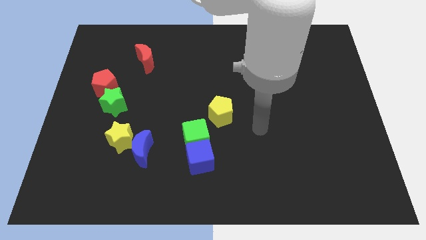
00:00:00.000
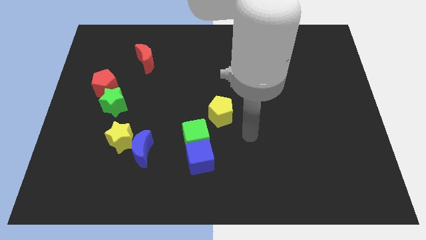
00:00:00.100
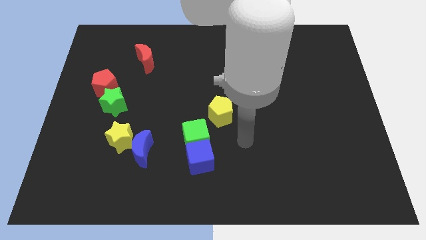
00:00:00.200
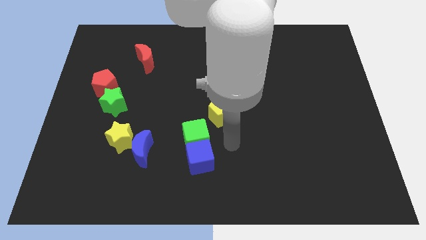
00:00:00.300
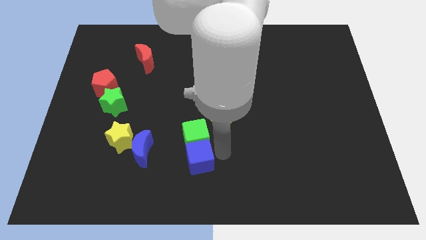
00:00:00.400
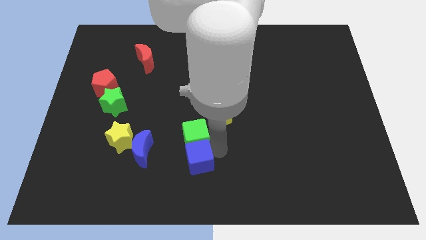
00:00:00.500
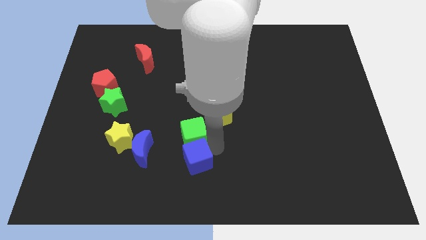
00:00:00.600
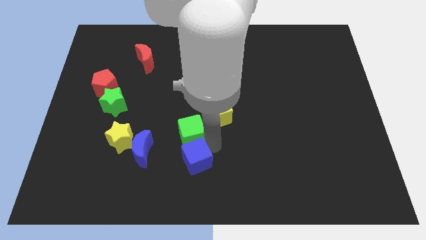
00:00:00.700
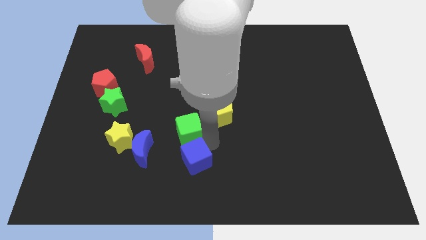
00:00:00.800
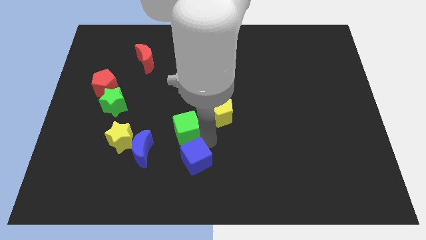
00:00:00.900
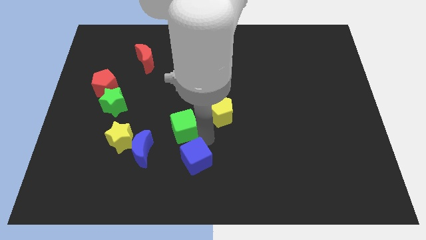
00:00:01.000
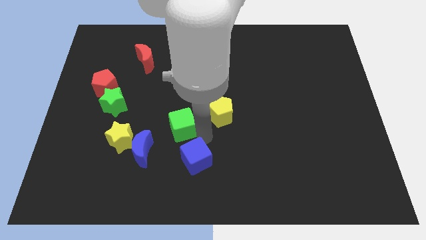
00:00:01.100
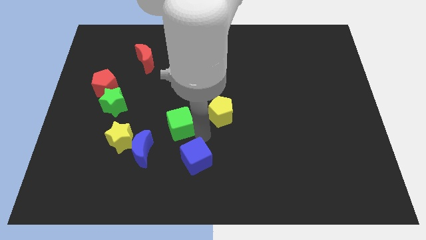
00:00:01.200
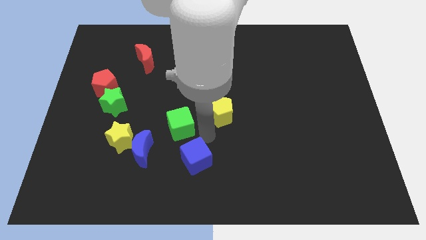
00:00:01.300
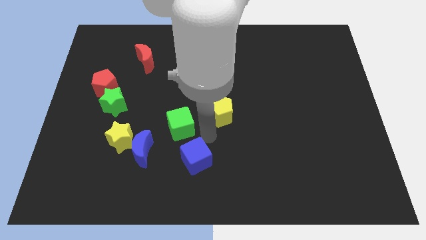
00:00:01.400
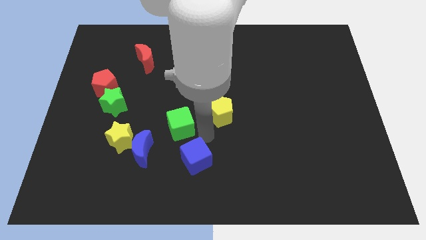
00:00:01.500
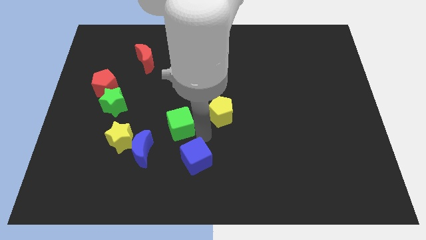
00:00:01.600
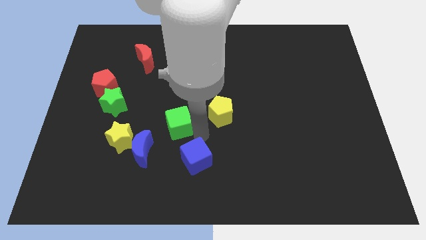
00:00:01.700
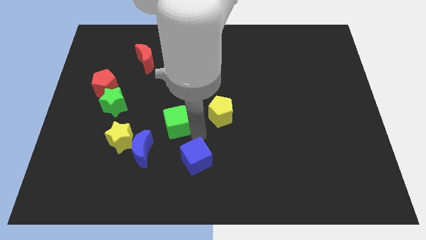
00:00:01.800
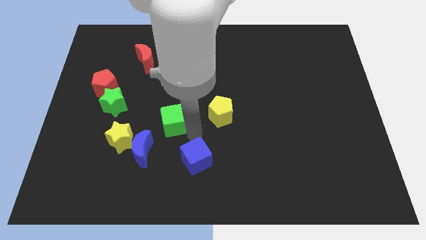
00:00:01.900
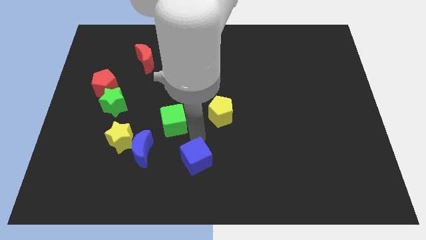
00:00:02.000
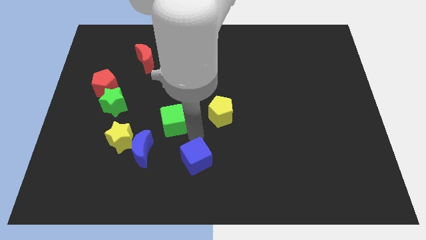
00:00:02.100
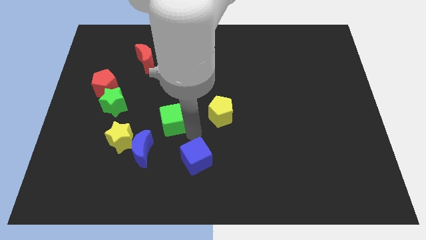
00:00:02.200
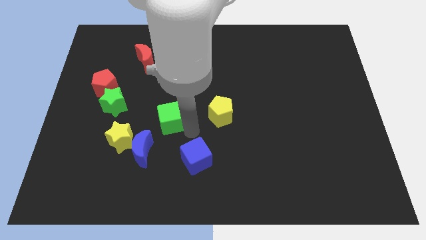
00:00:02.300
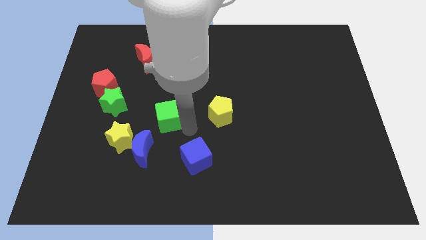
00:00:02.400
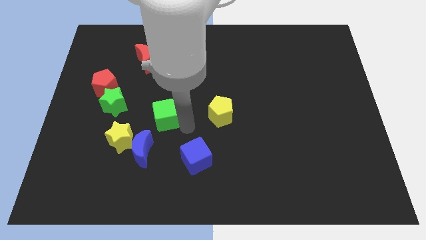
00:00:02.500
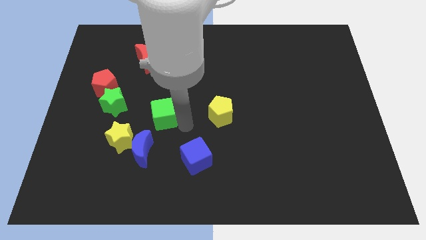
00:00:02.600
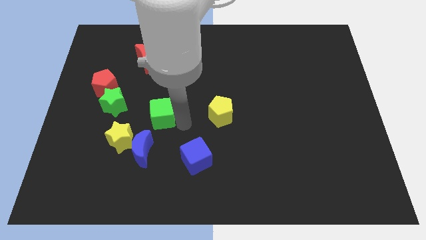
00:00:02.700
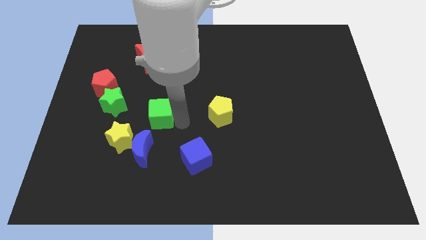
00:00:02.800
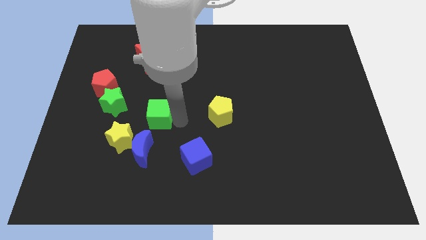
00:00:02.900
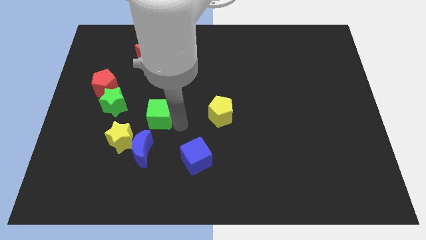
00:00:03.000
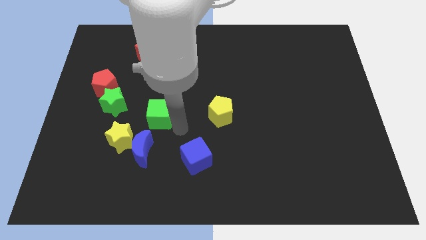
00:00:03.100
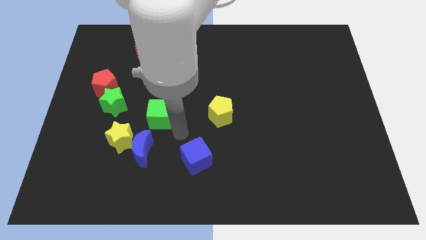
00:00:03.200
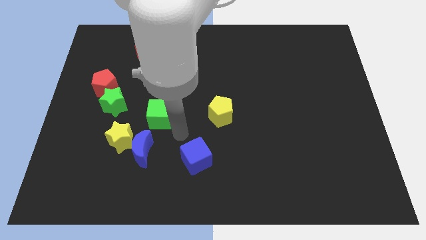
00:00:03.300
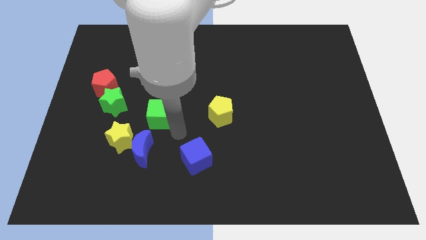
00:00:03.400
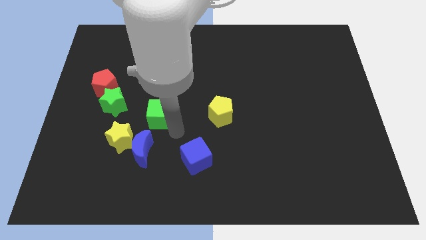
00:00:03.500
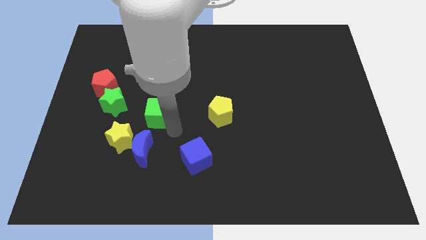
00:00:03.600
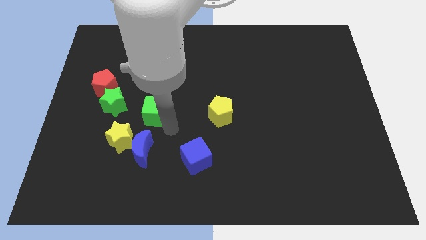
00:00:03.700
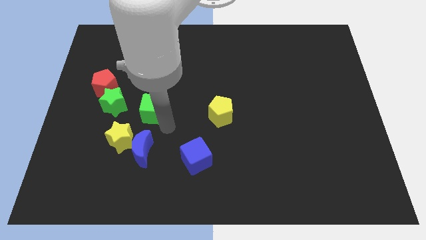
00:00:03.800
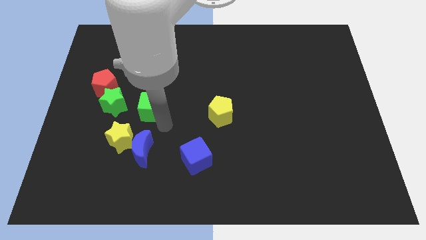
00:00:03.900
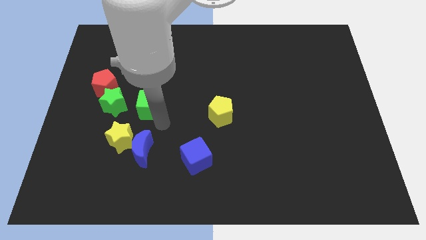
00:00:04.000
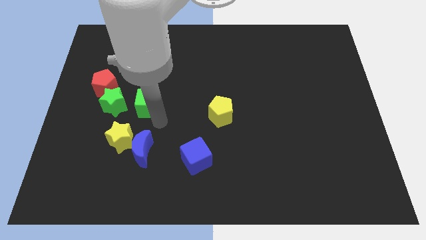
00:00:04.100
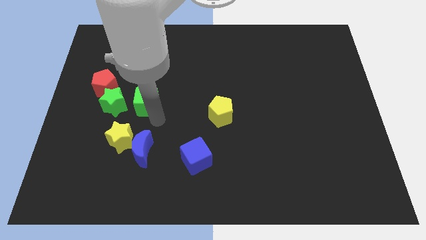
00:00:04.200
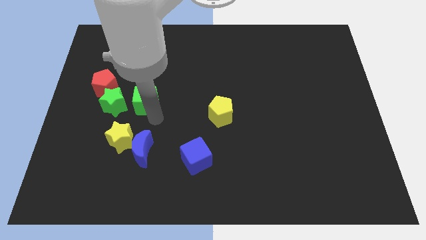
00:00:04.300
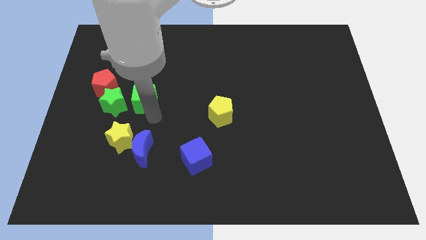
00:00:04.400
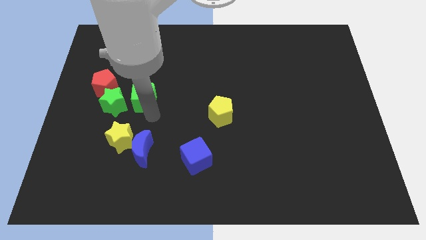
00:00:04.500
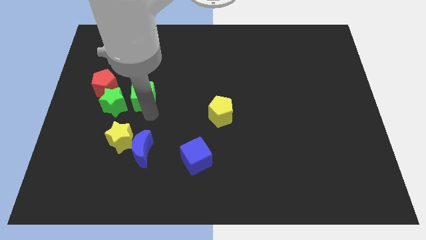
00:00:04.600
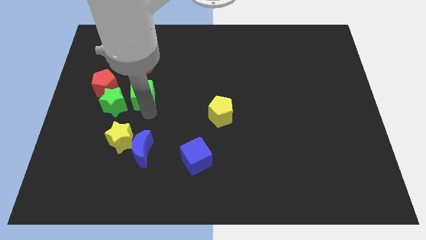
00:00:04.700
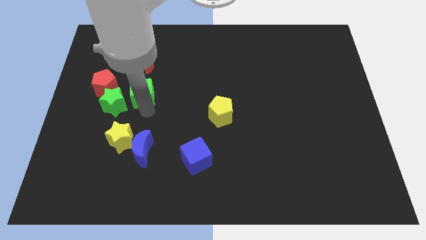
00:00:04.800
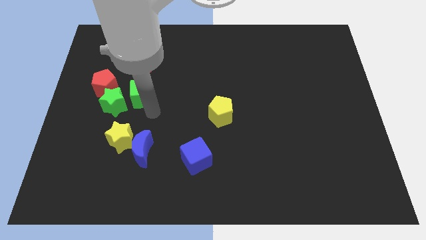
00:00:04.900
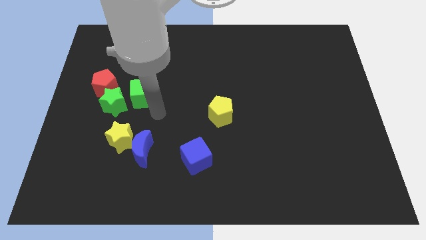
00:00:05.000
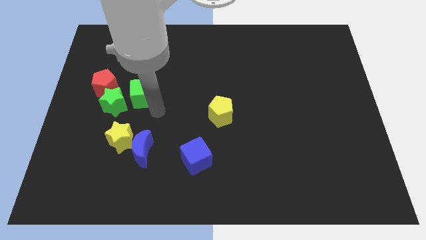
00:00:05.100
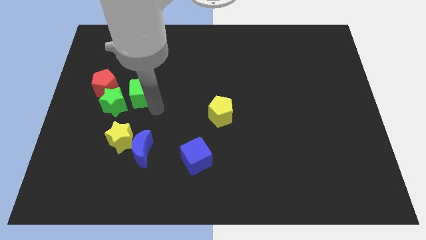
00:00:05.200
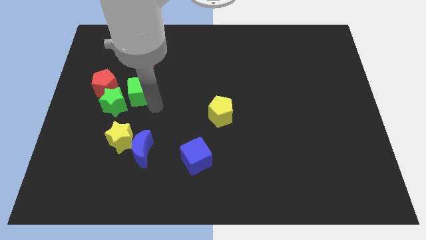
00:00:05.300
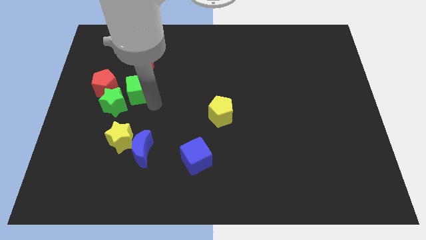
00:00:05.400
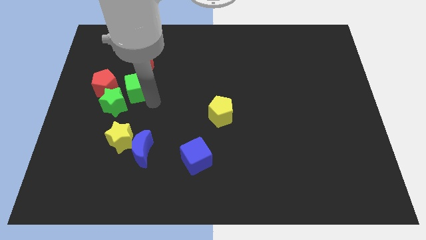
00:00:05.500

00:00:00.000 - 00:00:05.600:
slide the green cube up and then to the left

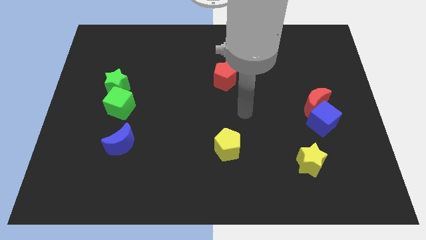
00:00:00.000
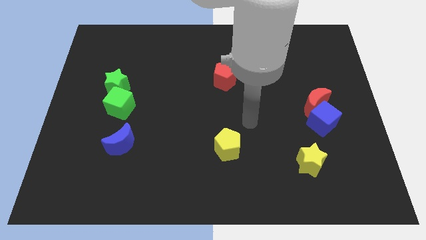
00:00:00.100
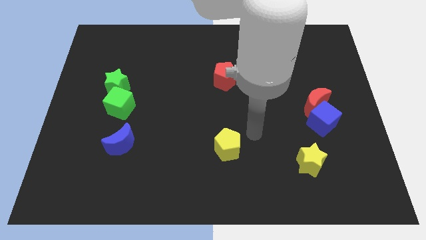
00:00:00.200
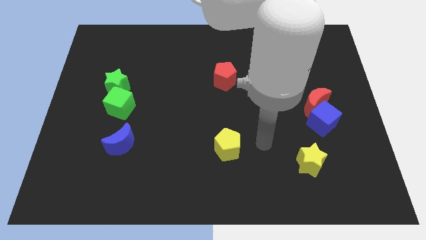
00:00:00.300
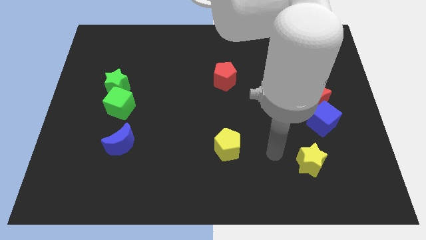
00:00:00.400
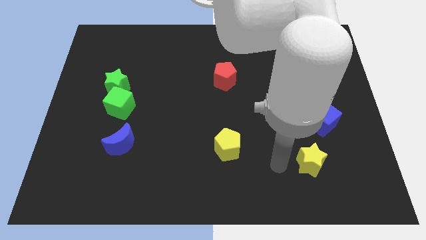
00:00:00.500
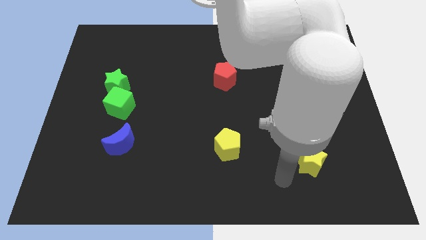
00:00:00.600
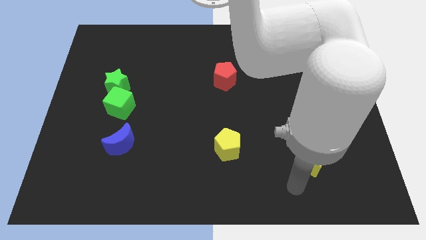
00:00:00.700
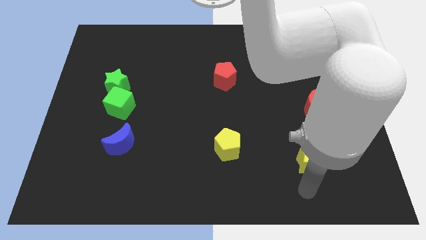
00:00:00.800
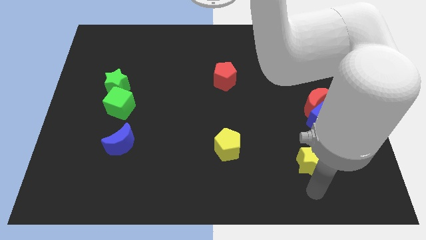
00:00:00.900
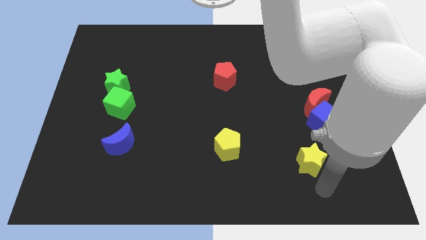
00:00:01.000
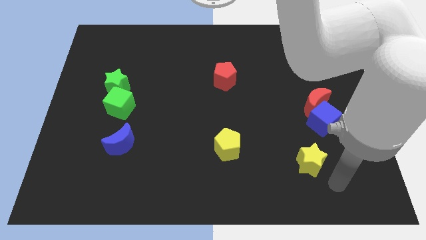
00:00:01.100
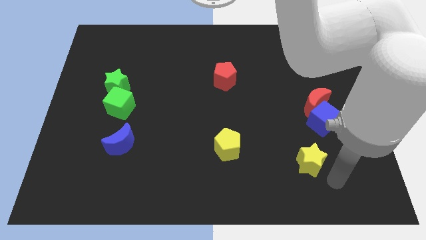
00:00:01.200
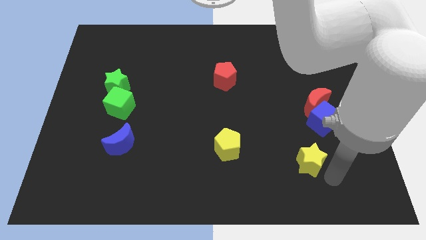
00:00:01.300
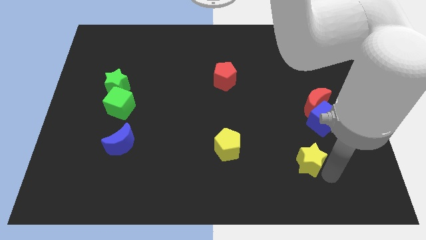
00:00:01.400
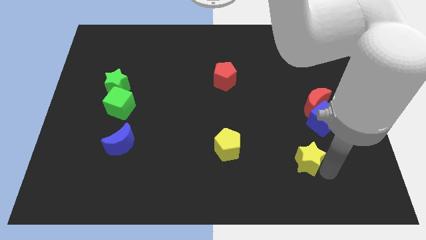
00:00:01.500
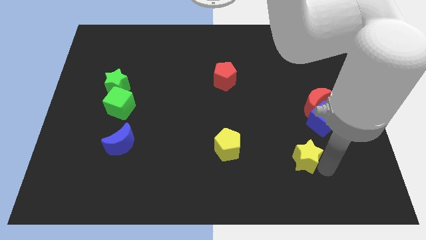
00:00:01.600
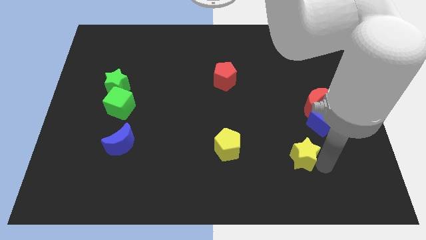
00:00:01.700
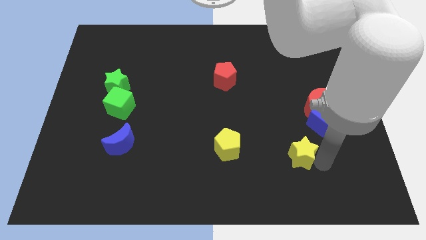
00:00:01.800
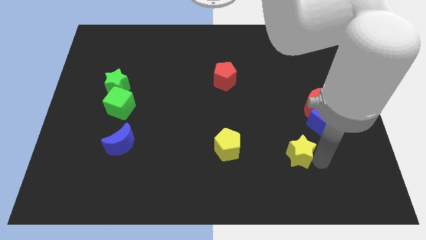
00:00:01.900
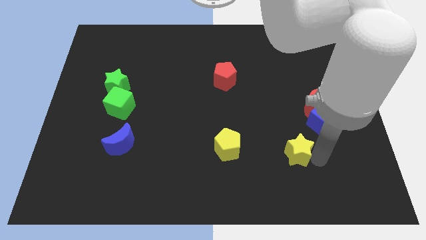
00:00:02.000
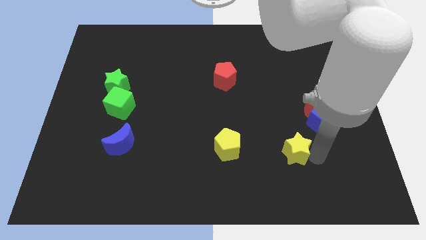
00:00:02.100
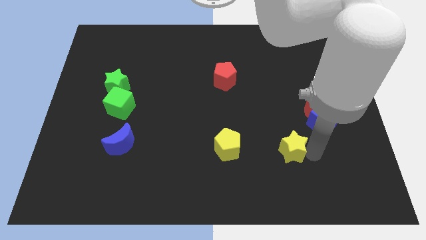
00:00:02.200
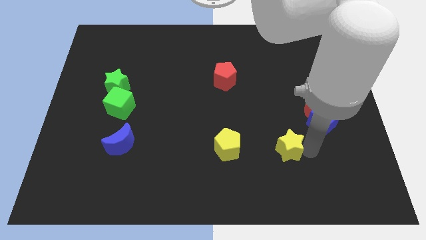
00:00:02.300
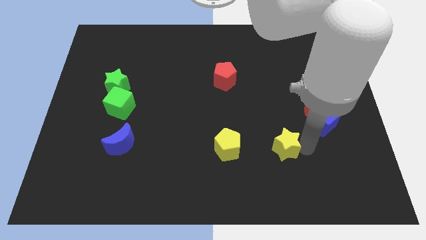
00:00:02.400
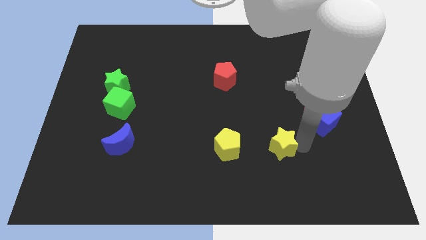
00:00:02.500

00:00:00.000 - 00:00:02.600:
slightly move the yellow star upwards and then to the left

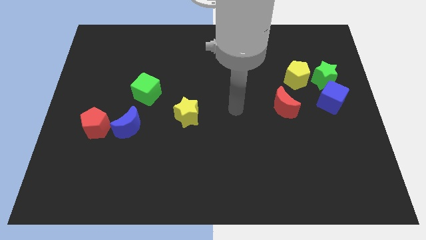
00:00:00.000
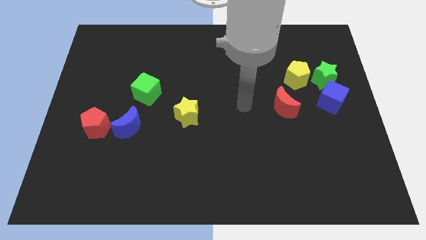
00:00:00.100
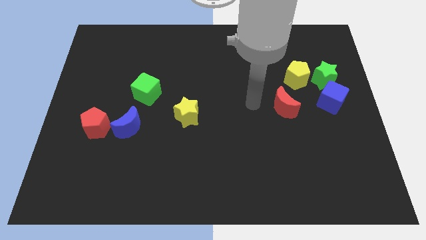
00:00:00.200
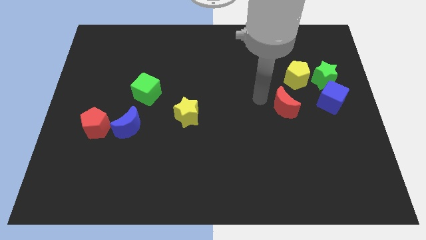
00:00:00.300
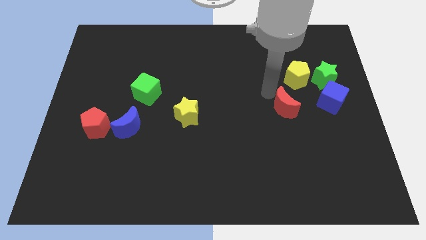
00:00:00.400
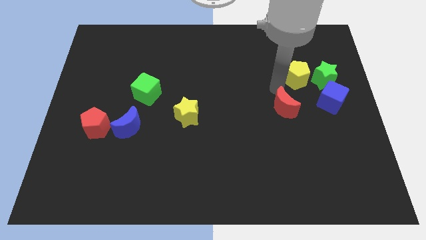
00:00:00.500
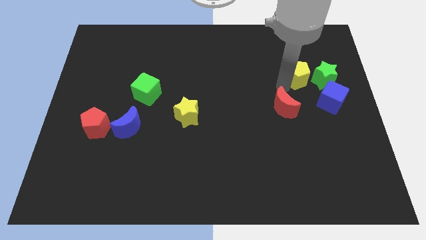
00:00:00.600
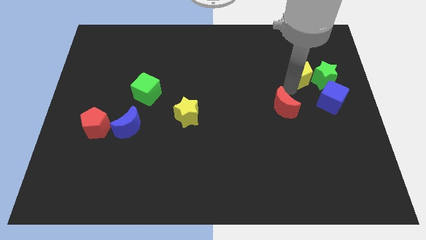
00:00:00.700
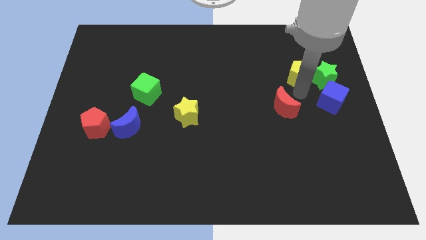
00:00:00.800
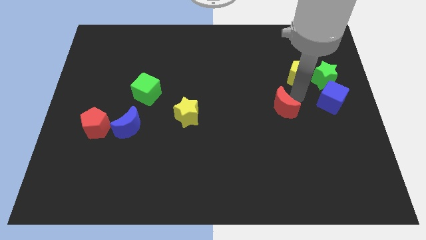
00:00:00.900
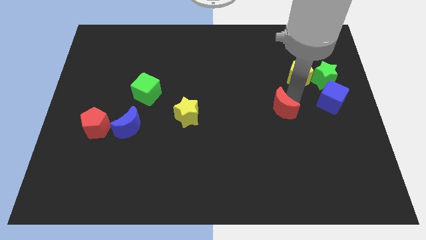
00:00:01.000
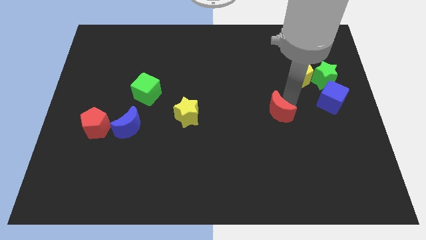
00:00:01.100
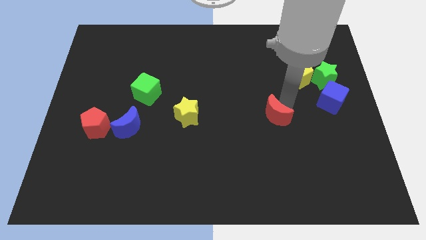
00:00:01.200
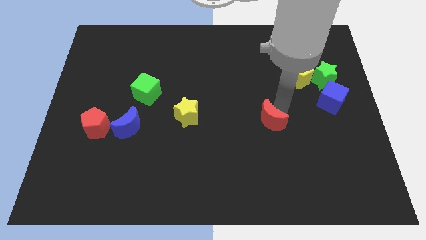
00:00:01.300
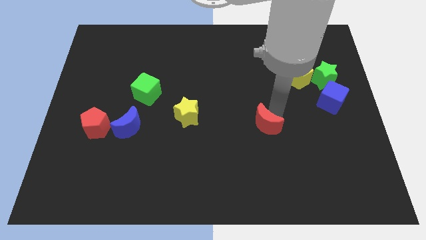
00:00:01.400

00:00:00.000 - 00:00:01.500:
push the red moon diagonally downwards and to the left a little bit
